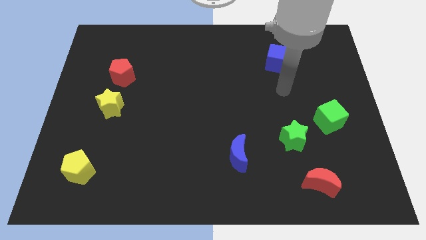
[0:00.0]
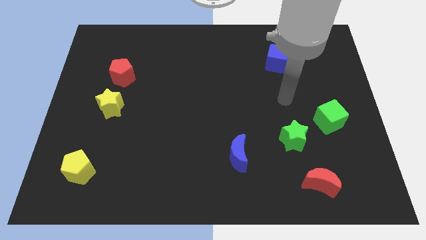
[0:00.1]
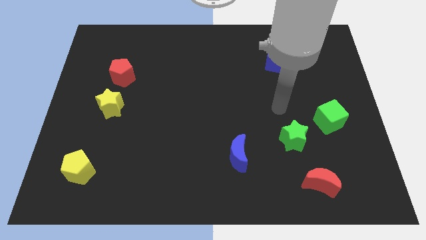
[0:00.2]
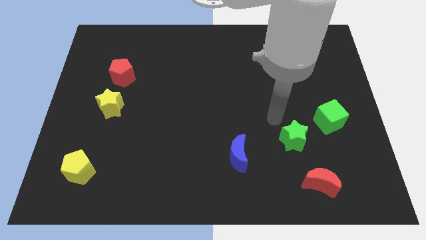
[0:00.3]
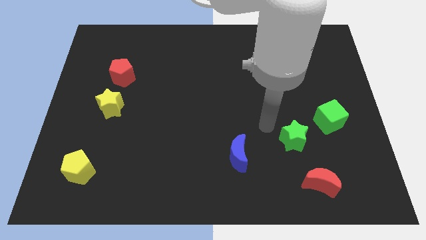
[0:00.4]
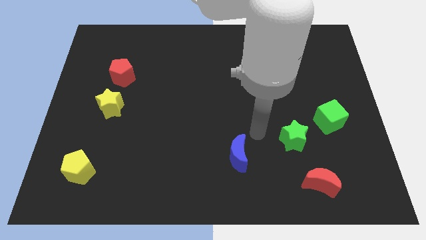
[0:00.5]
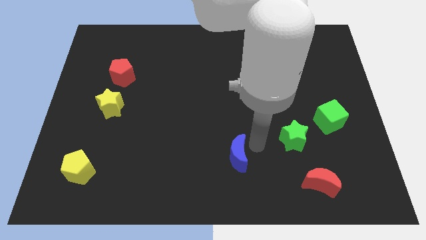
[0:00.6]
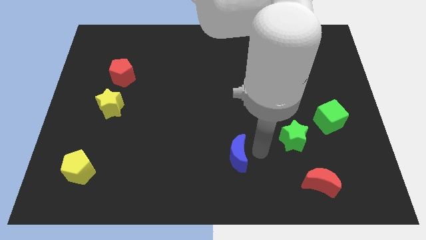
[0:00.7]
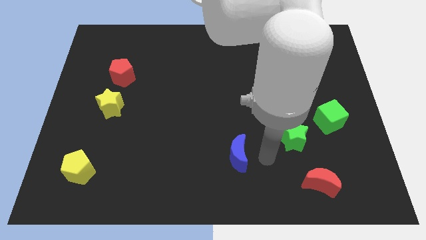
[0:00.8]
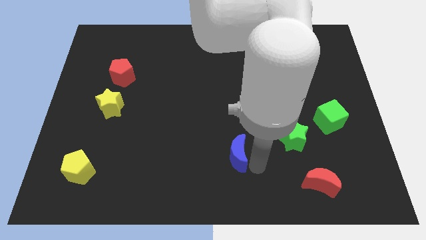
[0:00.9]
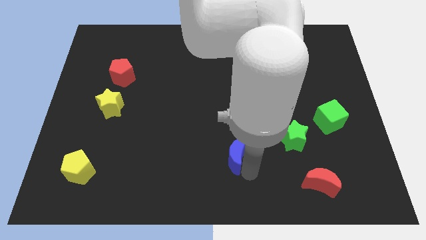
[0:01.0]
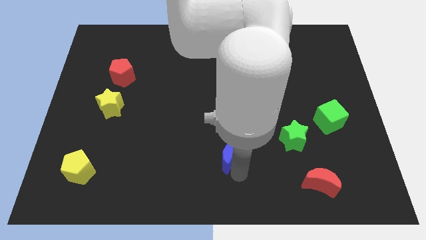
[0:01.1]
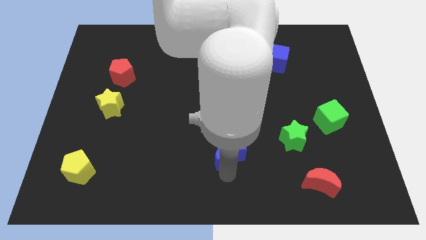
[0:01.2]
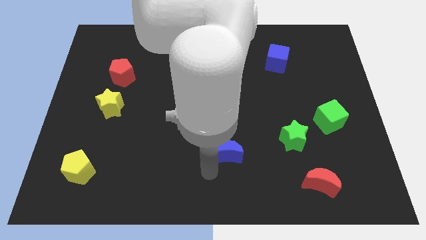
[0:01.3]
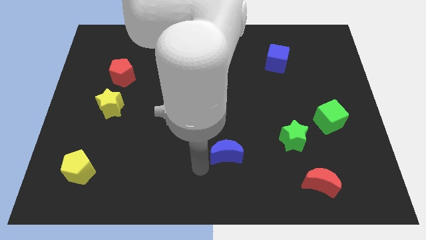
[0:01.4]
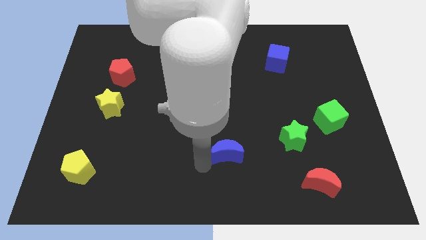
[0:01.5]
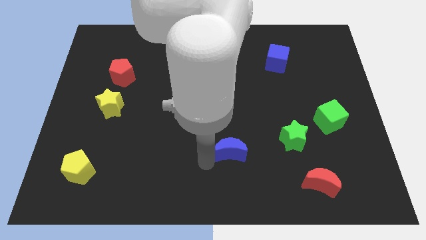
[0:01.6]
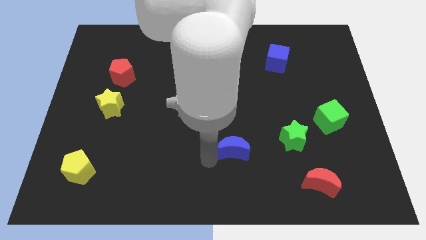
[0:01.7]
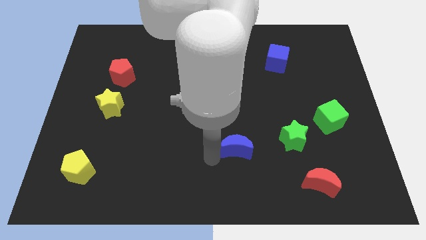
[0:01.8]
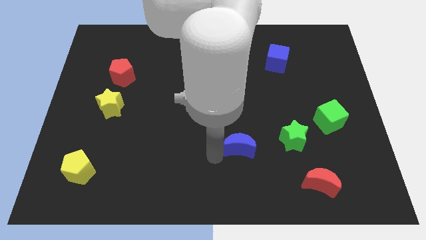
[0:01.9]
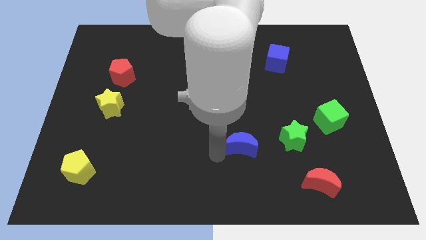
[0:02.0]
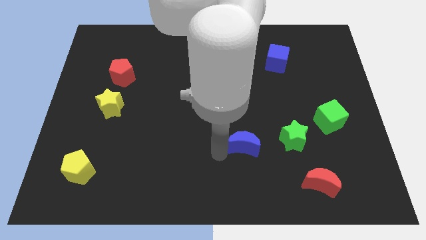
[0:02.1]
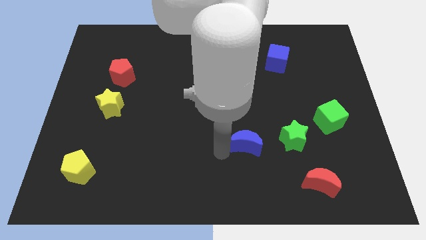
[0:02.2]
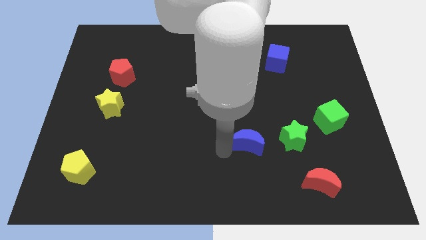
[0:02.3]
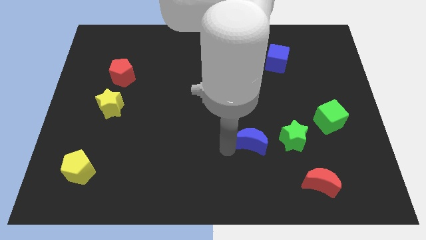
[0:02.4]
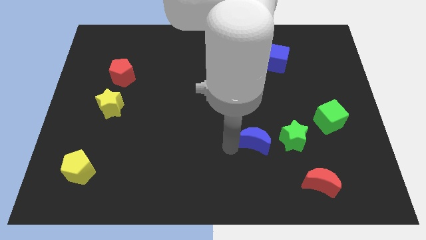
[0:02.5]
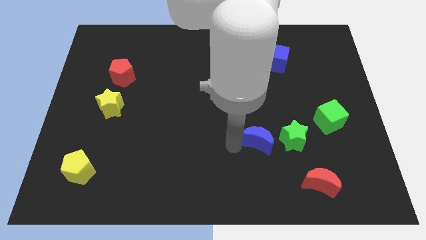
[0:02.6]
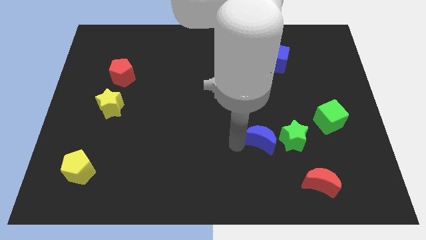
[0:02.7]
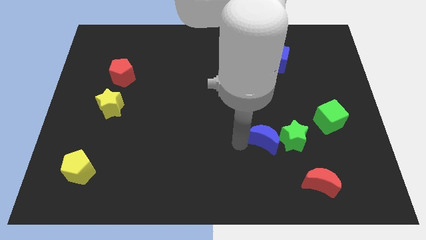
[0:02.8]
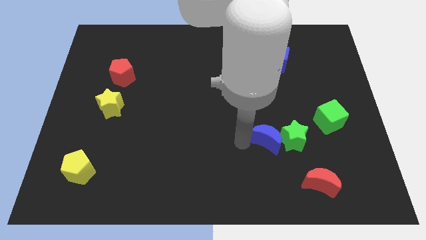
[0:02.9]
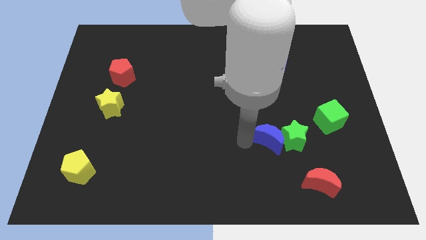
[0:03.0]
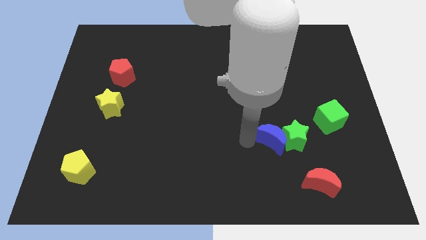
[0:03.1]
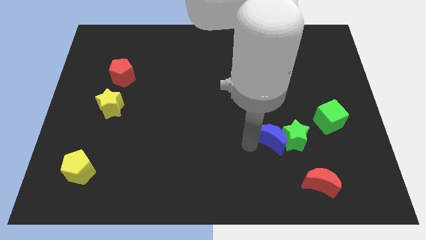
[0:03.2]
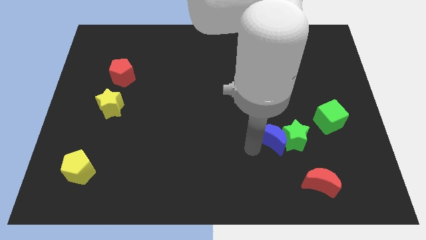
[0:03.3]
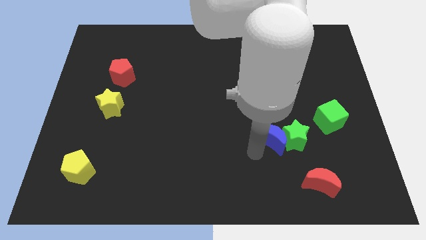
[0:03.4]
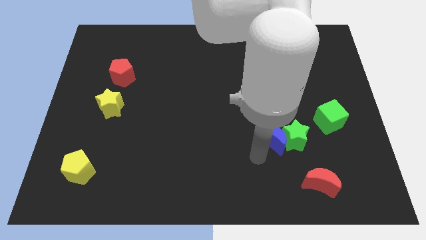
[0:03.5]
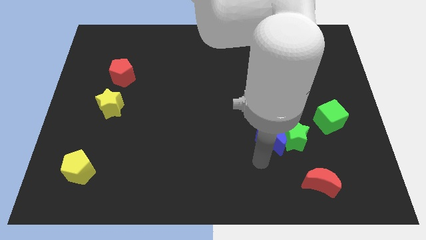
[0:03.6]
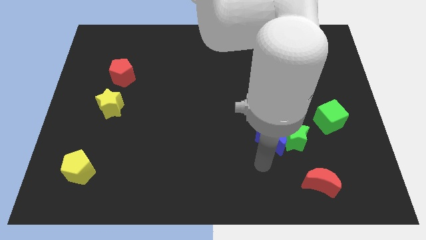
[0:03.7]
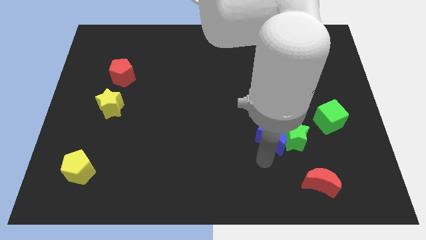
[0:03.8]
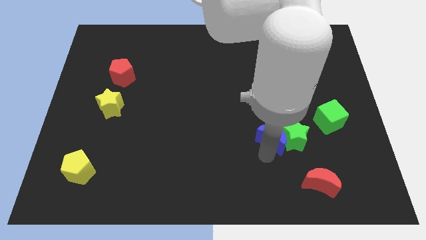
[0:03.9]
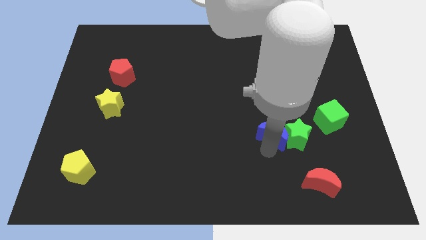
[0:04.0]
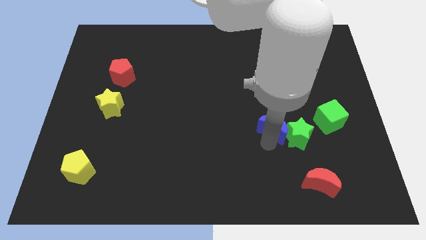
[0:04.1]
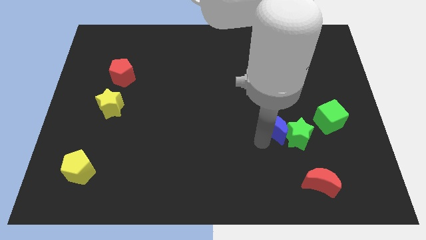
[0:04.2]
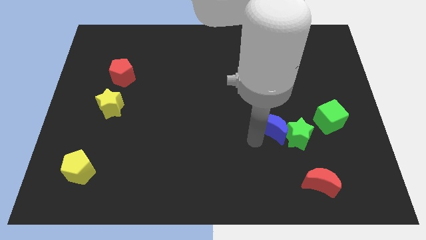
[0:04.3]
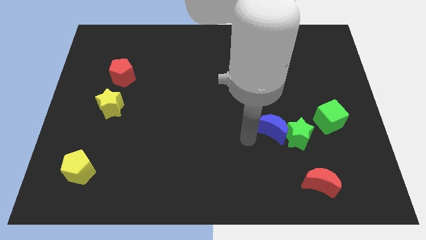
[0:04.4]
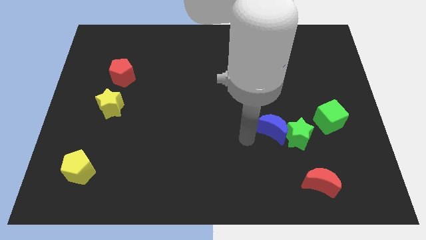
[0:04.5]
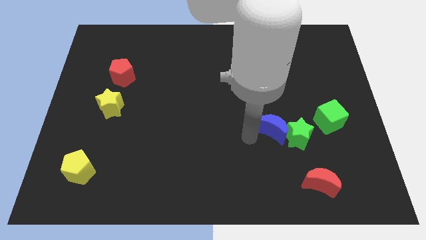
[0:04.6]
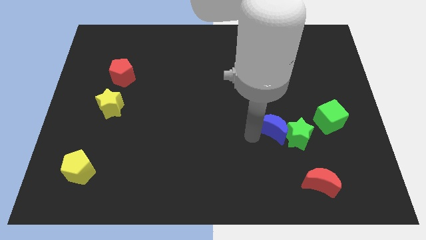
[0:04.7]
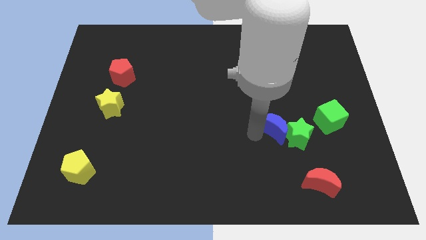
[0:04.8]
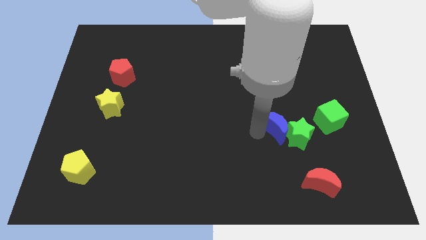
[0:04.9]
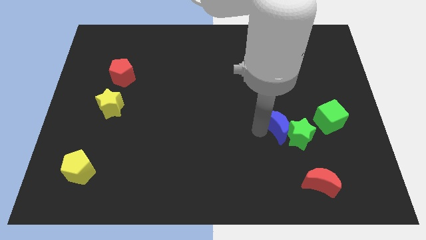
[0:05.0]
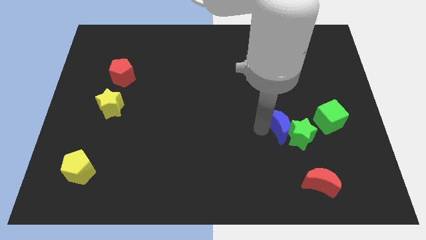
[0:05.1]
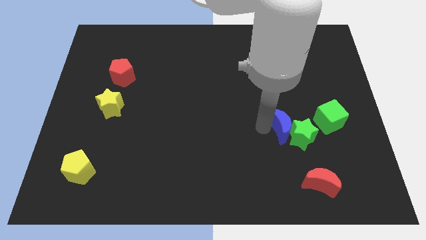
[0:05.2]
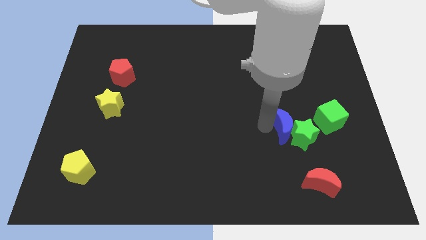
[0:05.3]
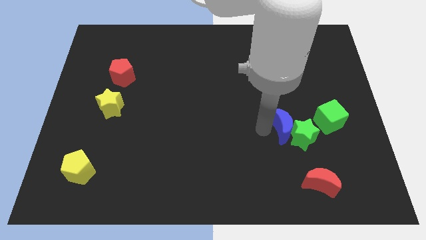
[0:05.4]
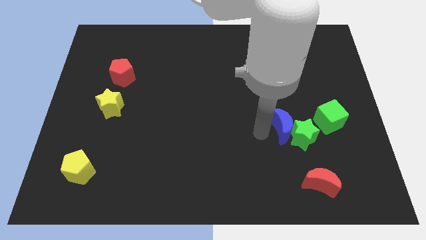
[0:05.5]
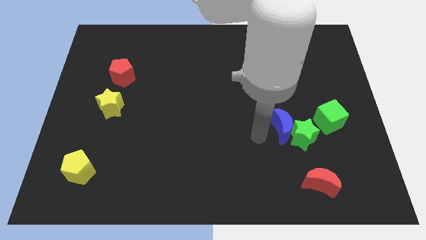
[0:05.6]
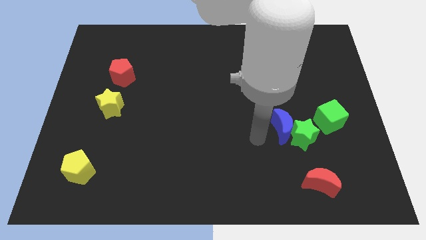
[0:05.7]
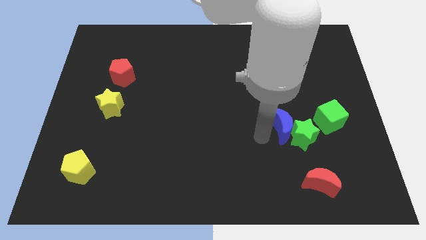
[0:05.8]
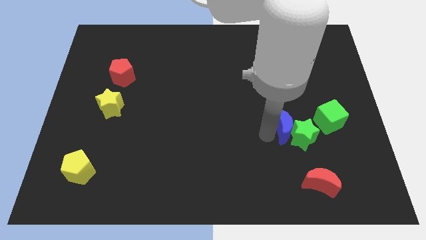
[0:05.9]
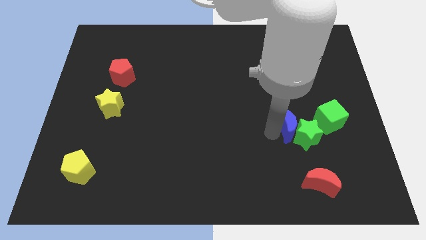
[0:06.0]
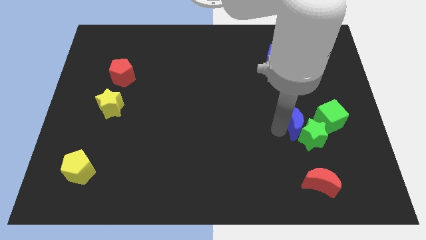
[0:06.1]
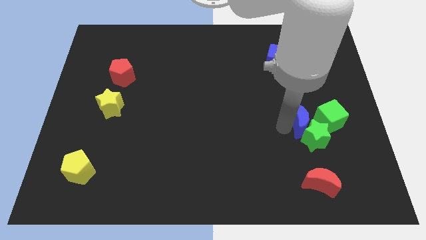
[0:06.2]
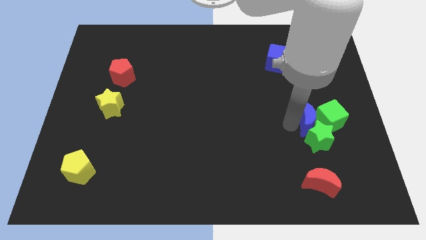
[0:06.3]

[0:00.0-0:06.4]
put the blue moon towards the green cube

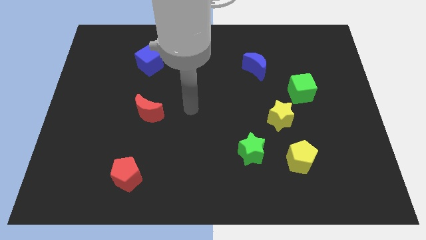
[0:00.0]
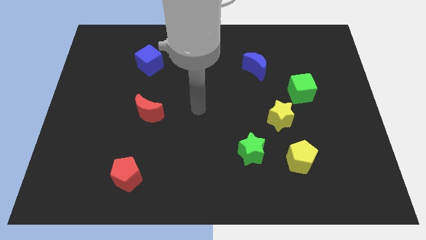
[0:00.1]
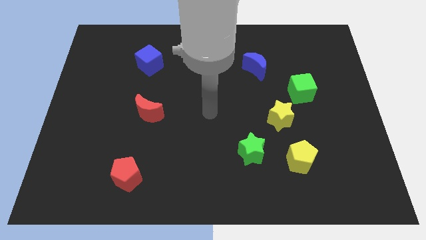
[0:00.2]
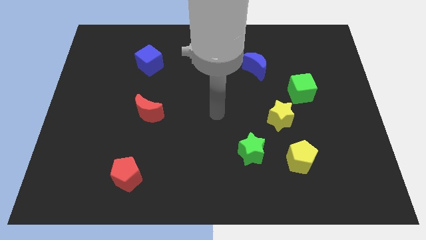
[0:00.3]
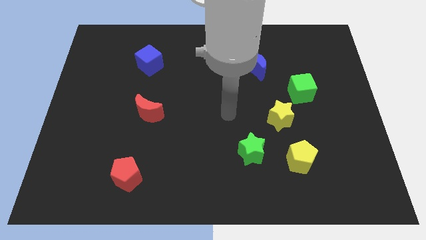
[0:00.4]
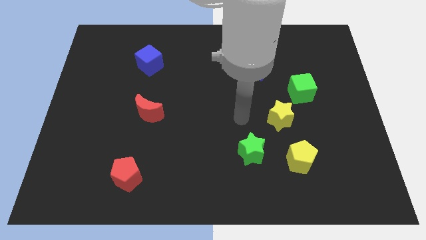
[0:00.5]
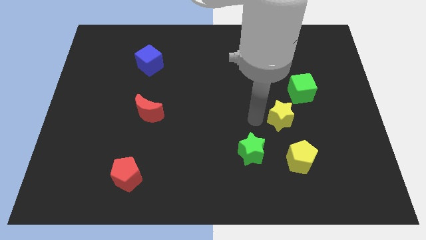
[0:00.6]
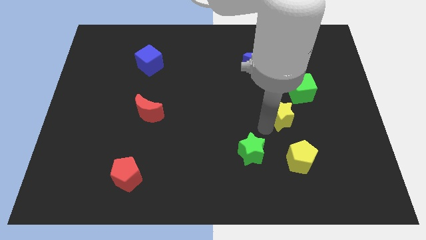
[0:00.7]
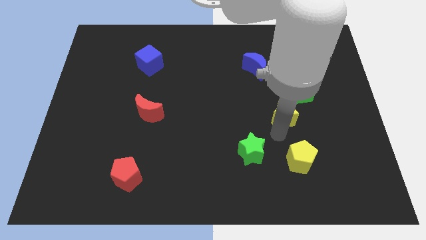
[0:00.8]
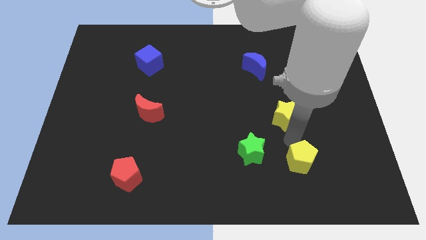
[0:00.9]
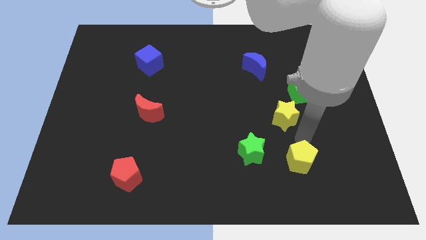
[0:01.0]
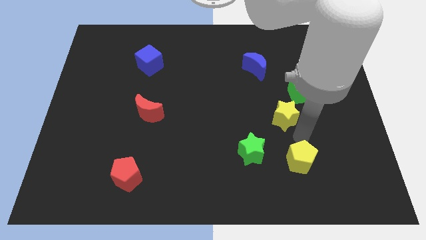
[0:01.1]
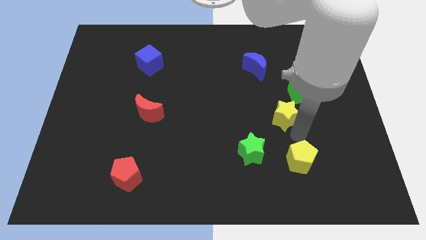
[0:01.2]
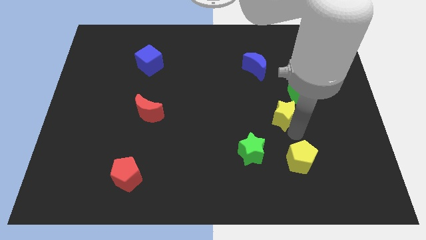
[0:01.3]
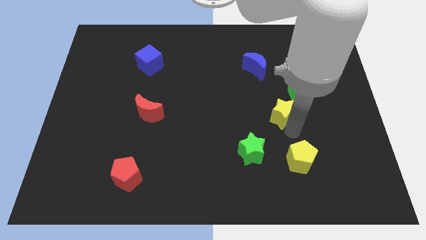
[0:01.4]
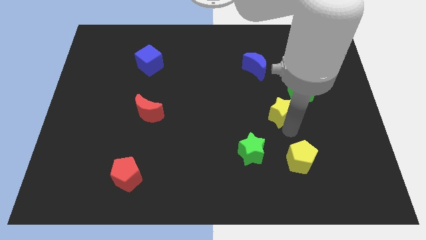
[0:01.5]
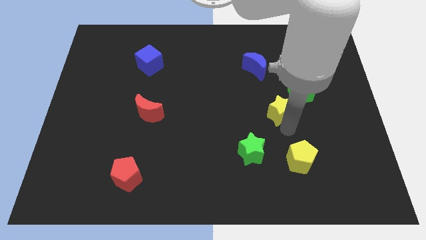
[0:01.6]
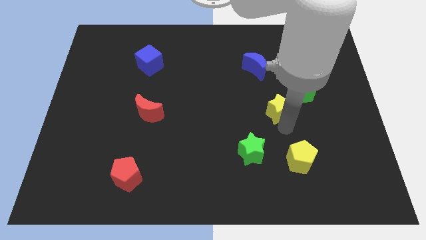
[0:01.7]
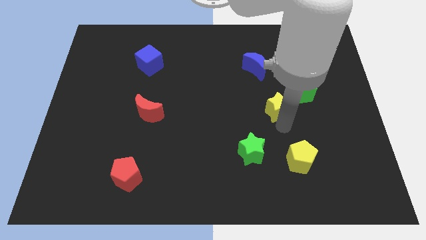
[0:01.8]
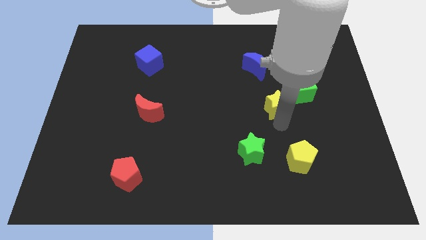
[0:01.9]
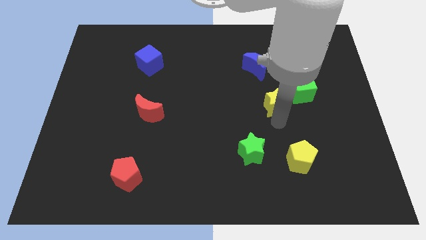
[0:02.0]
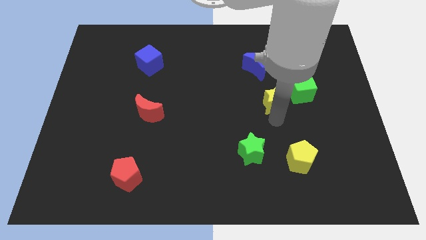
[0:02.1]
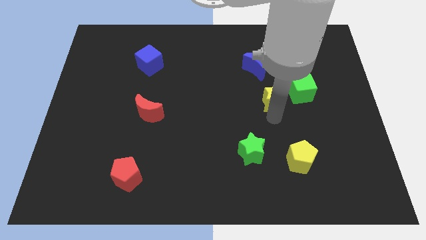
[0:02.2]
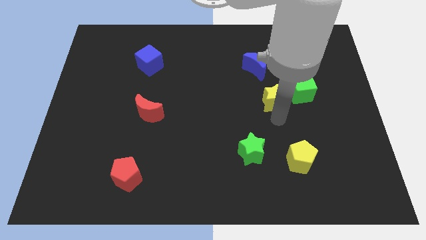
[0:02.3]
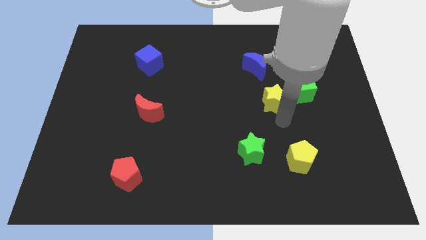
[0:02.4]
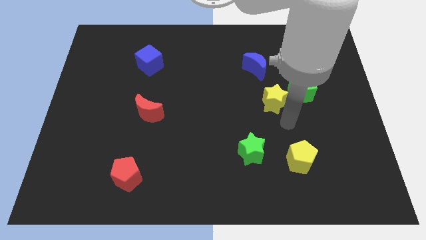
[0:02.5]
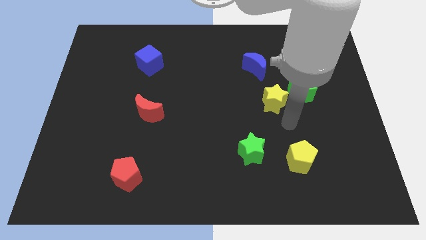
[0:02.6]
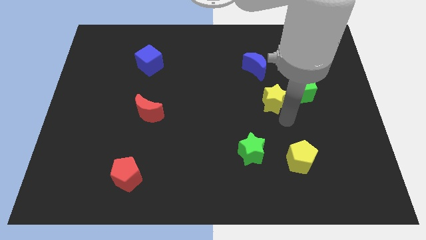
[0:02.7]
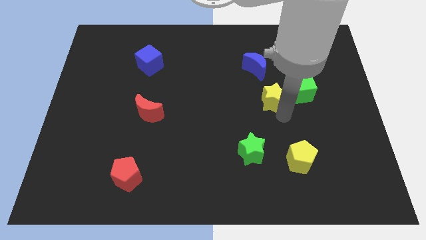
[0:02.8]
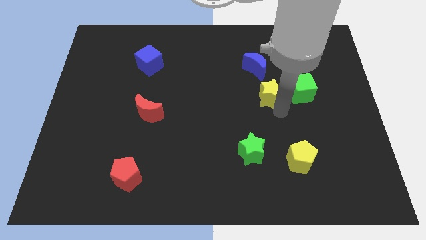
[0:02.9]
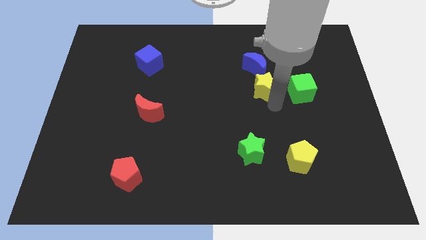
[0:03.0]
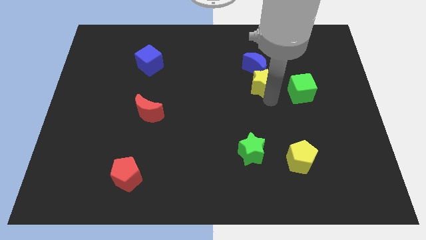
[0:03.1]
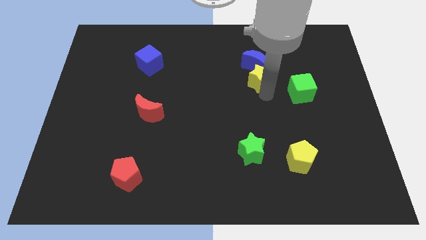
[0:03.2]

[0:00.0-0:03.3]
slide the yellow star next to the blue moon
